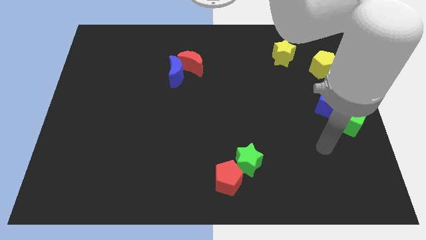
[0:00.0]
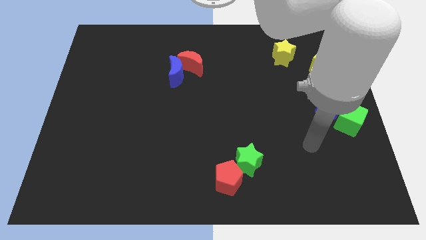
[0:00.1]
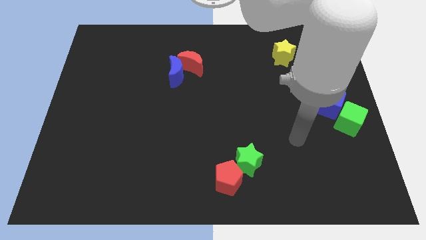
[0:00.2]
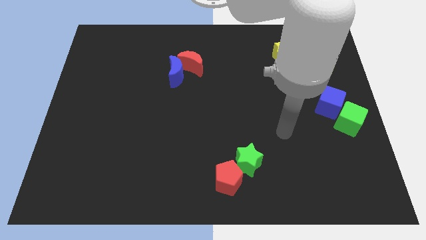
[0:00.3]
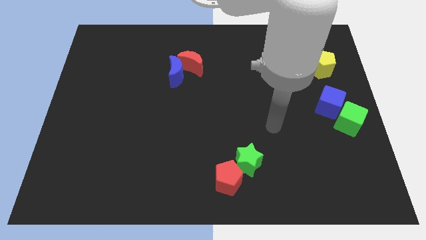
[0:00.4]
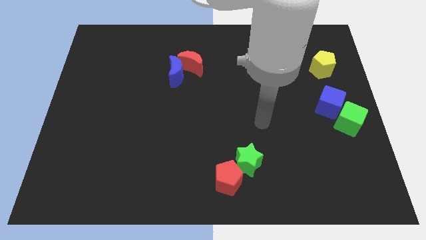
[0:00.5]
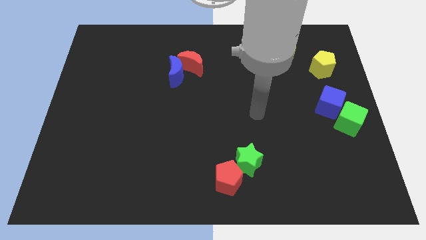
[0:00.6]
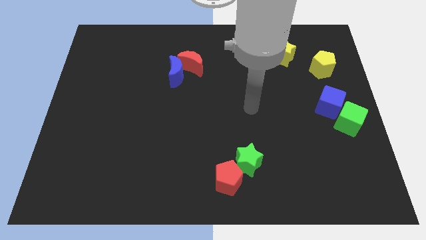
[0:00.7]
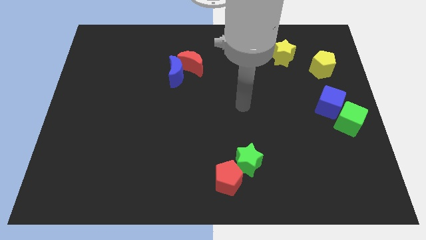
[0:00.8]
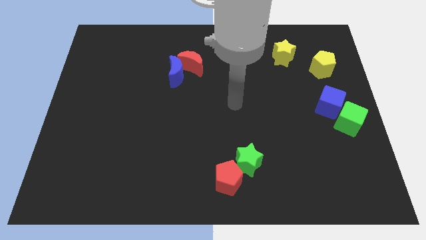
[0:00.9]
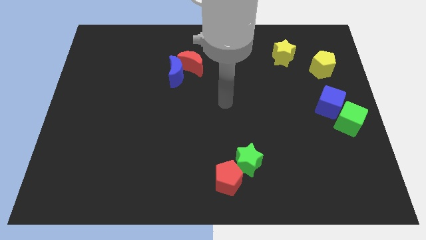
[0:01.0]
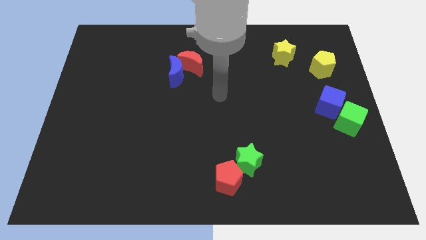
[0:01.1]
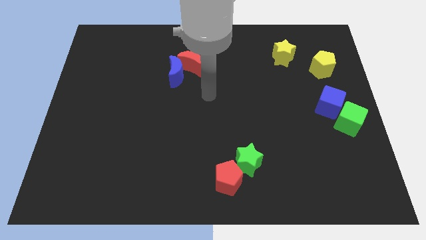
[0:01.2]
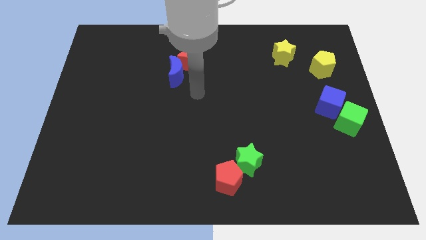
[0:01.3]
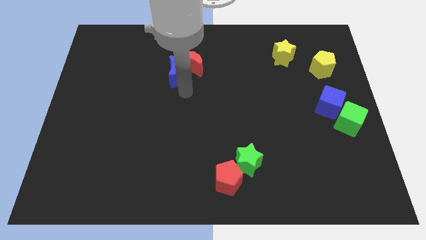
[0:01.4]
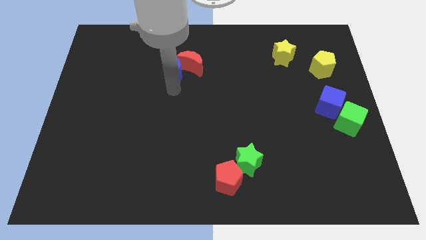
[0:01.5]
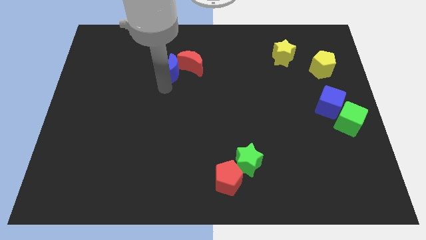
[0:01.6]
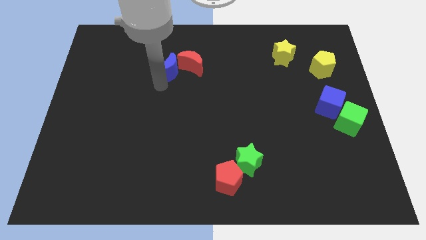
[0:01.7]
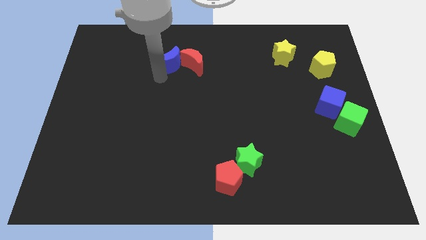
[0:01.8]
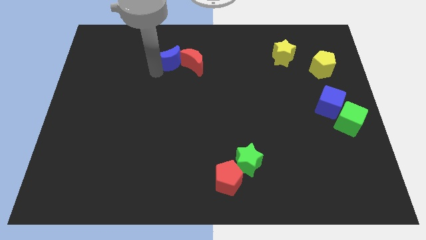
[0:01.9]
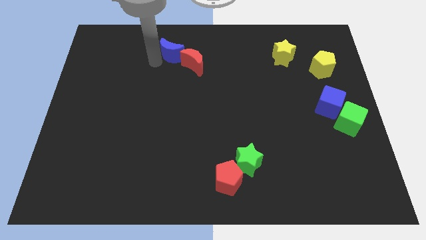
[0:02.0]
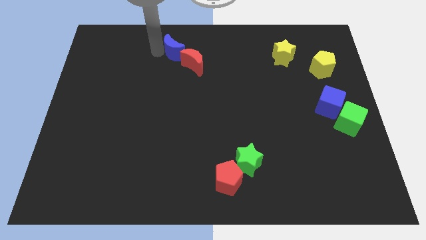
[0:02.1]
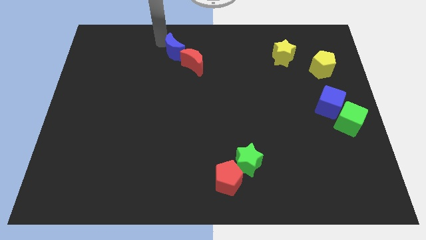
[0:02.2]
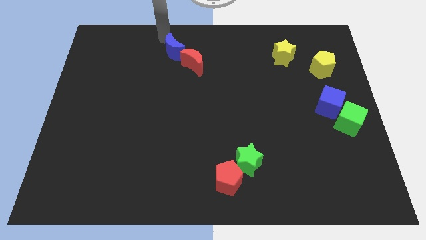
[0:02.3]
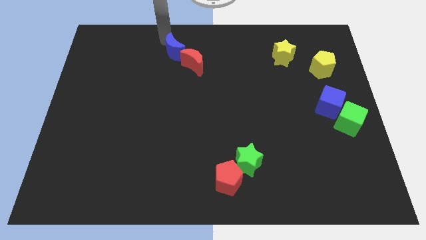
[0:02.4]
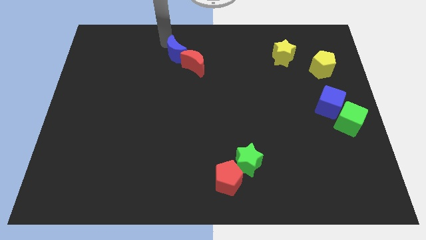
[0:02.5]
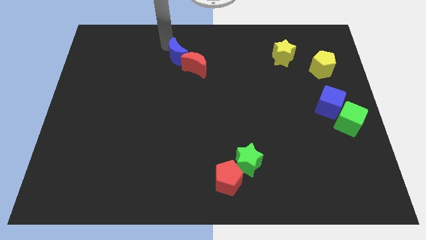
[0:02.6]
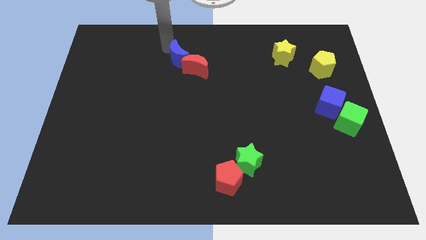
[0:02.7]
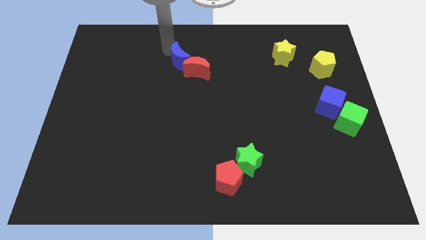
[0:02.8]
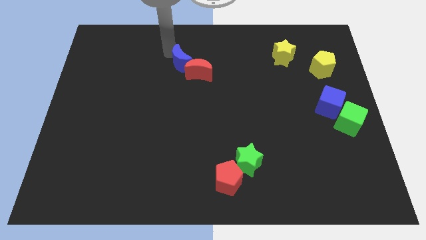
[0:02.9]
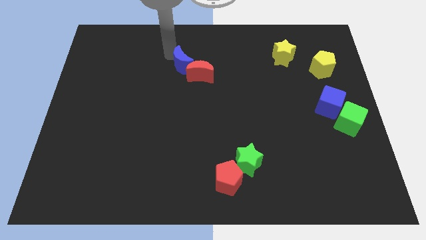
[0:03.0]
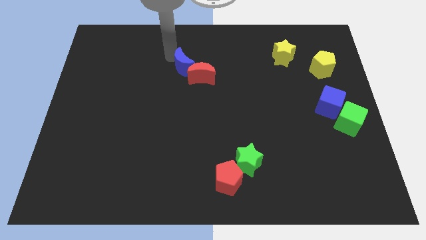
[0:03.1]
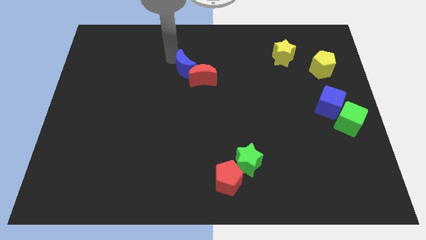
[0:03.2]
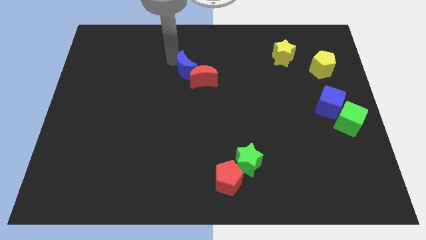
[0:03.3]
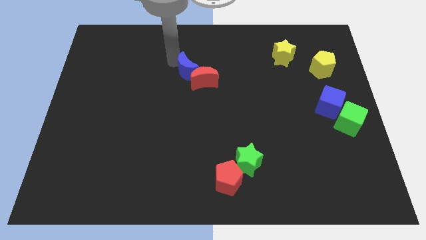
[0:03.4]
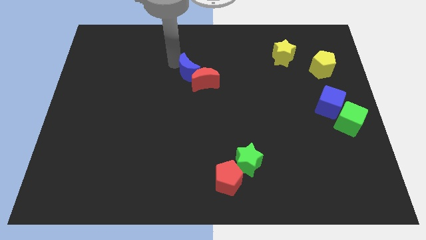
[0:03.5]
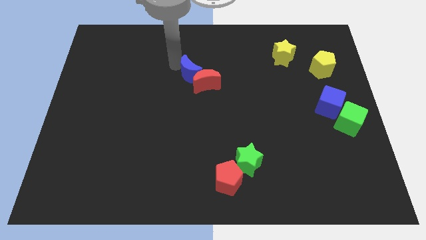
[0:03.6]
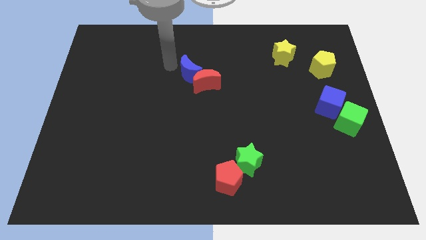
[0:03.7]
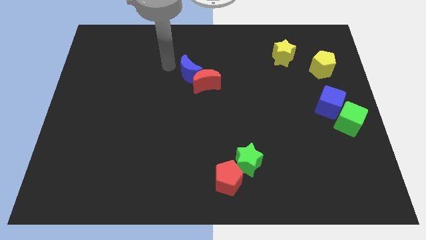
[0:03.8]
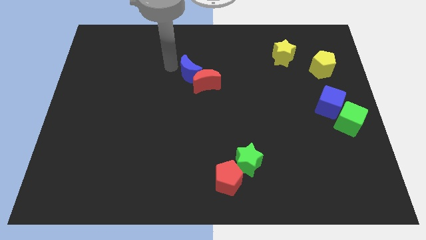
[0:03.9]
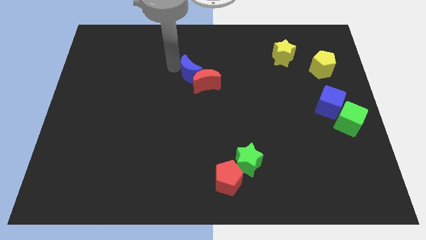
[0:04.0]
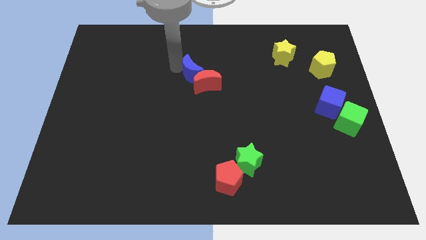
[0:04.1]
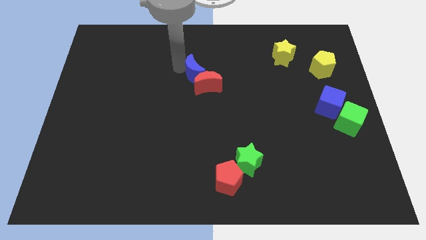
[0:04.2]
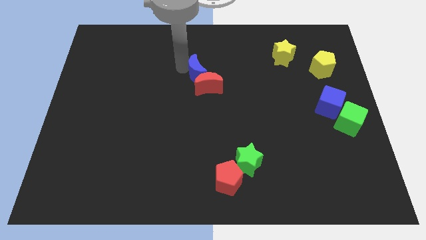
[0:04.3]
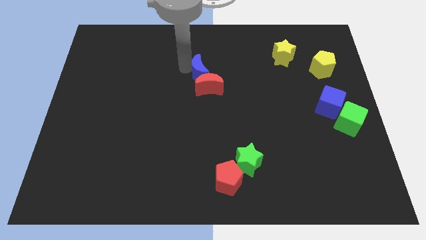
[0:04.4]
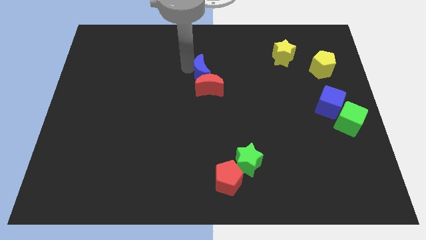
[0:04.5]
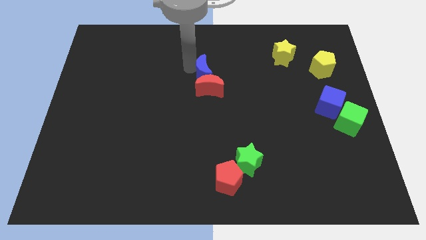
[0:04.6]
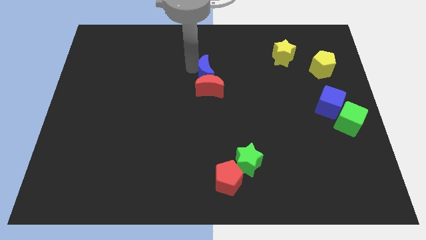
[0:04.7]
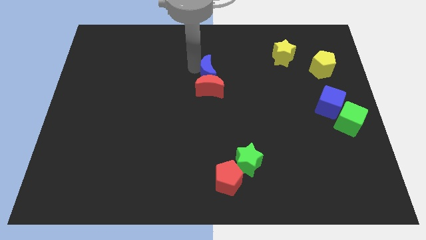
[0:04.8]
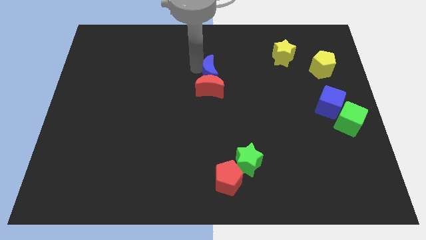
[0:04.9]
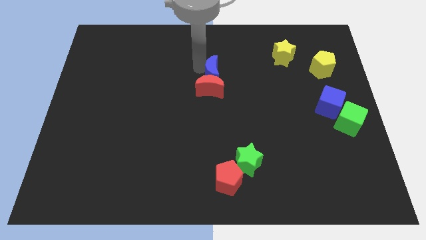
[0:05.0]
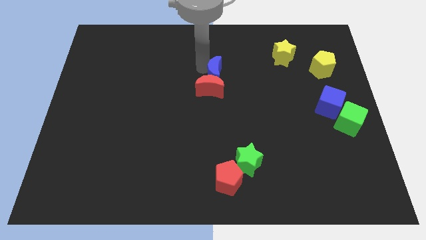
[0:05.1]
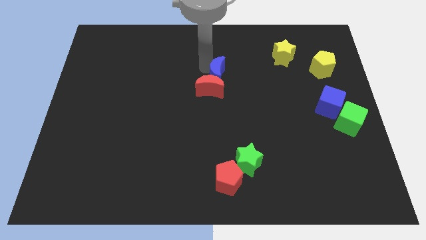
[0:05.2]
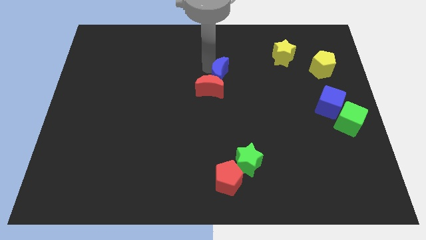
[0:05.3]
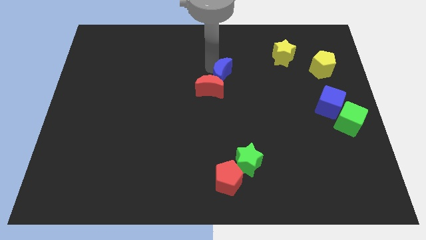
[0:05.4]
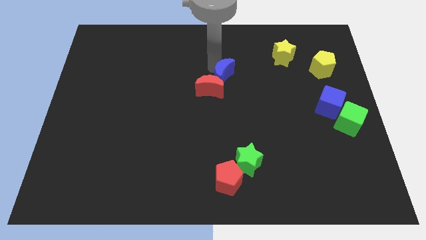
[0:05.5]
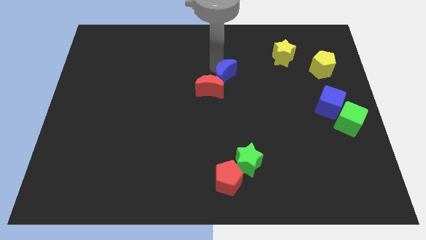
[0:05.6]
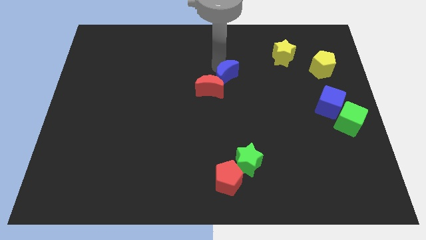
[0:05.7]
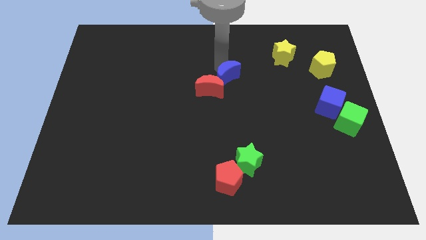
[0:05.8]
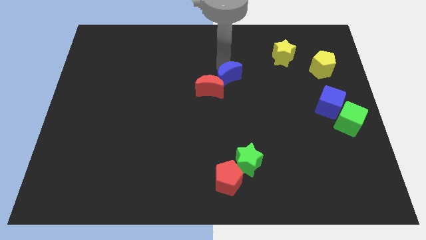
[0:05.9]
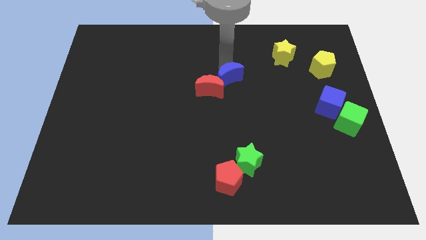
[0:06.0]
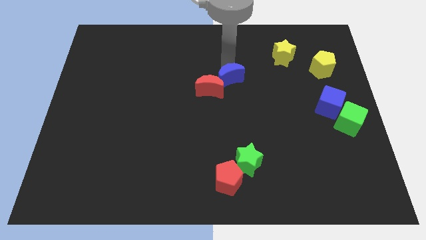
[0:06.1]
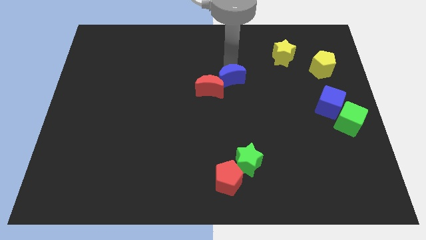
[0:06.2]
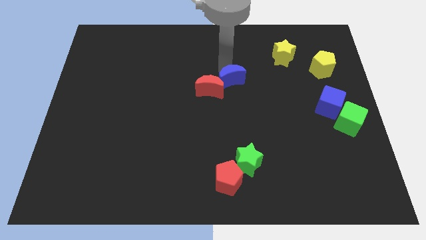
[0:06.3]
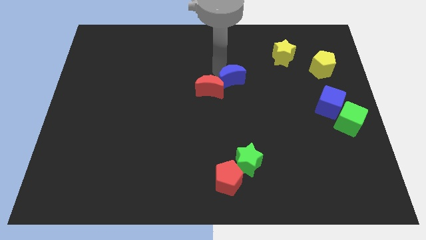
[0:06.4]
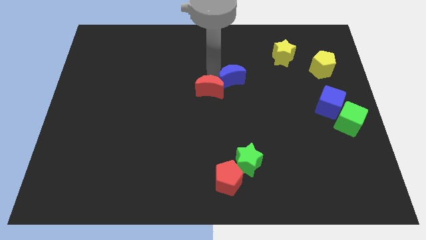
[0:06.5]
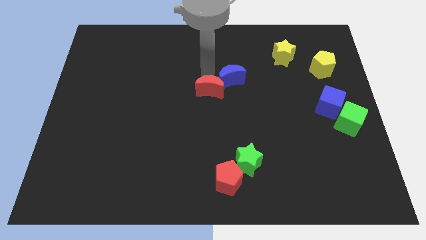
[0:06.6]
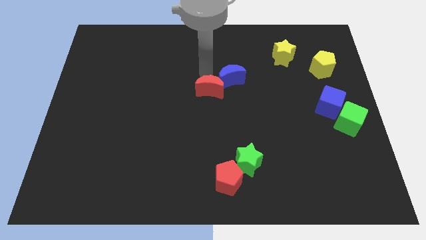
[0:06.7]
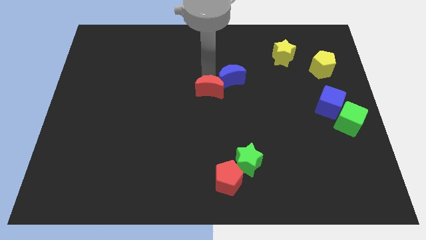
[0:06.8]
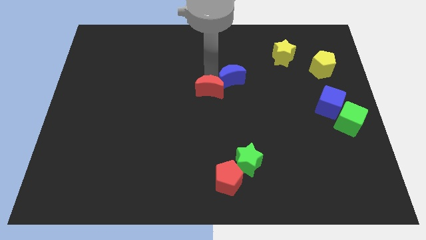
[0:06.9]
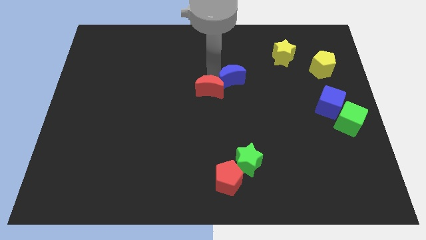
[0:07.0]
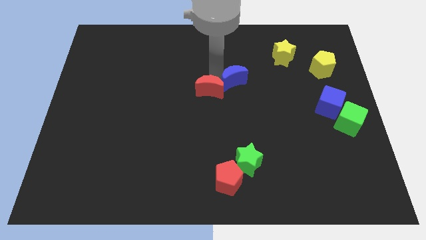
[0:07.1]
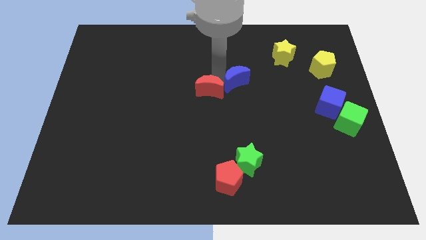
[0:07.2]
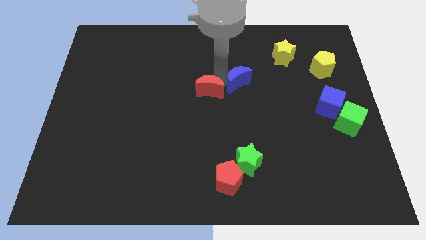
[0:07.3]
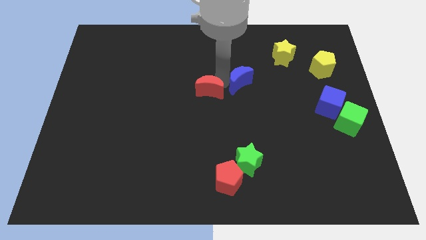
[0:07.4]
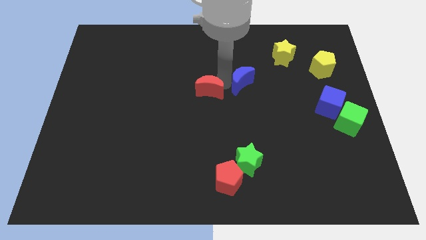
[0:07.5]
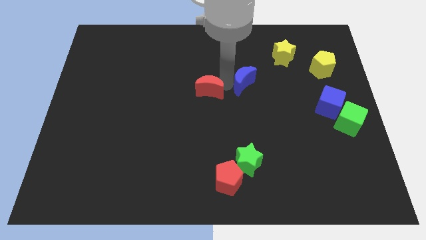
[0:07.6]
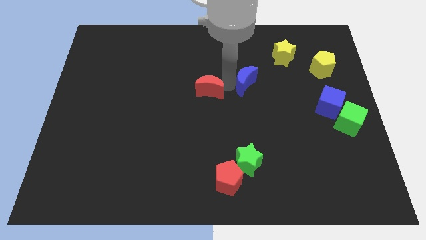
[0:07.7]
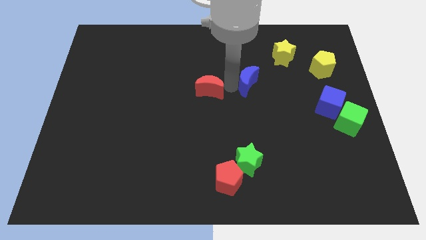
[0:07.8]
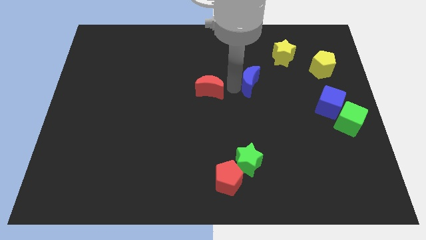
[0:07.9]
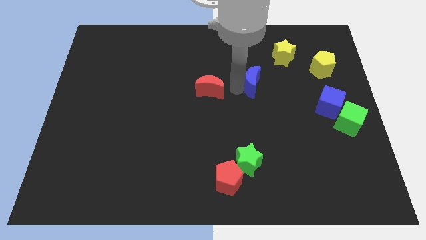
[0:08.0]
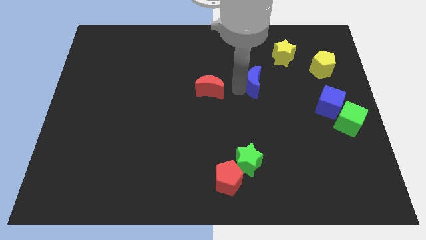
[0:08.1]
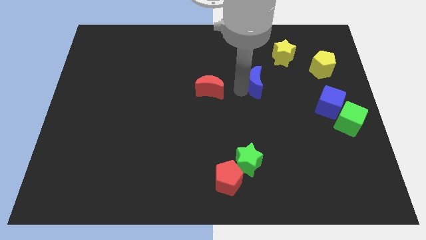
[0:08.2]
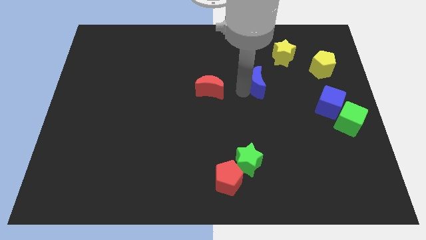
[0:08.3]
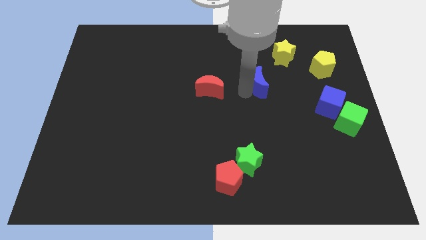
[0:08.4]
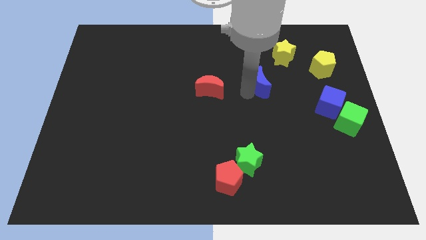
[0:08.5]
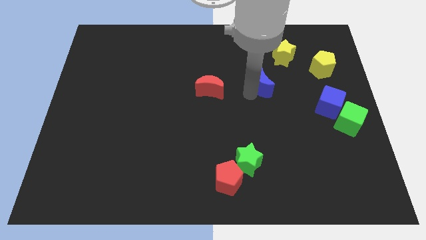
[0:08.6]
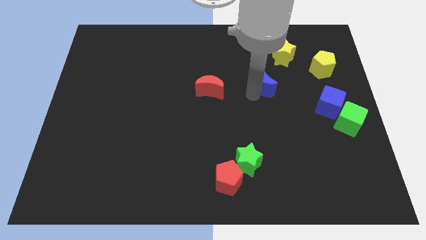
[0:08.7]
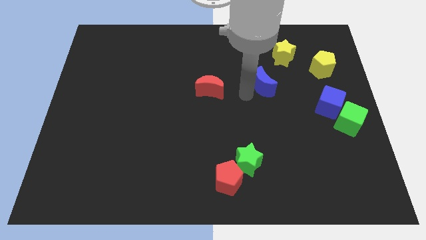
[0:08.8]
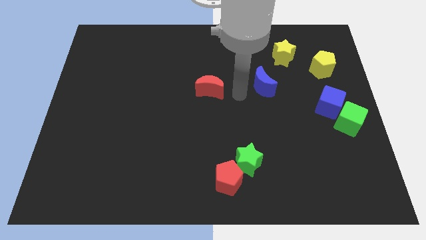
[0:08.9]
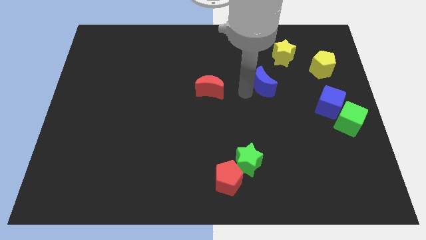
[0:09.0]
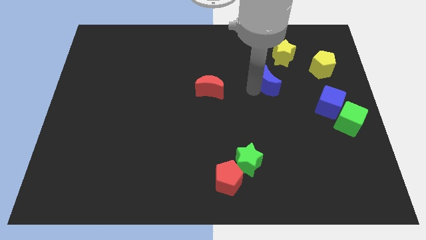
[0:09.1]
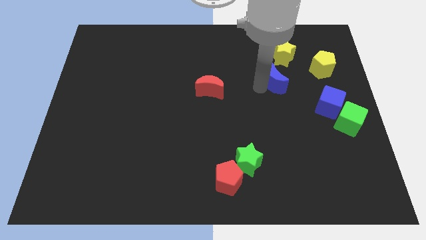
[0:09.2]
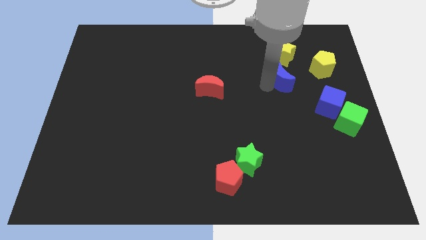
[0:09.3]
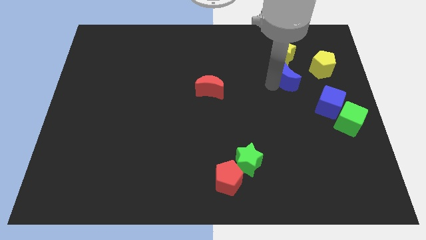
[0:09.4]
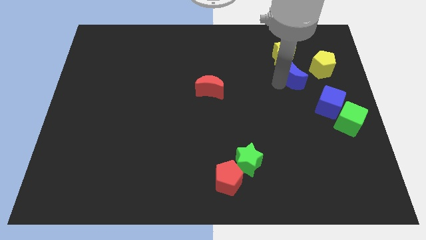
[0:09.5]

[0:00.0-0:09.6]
slide the blue moon to the bottom right side of the yellow star
